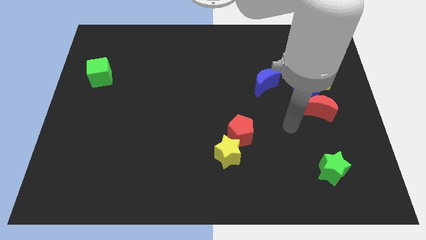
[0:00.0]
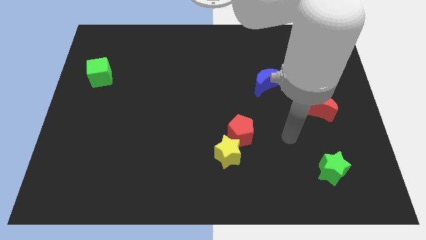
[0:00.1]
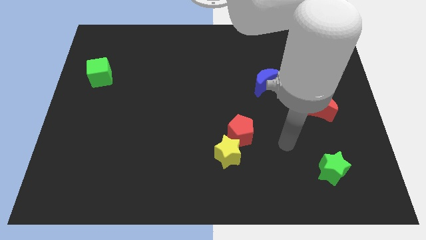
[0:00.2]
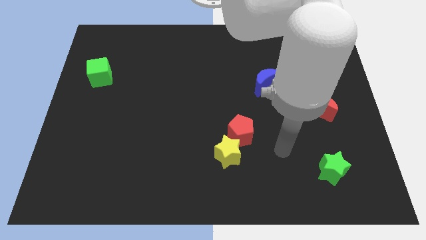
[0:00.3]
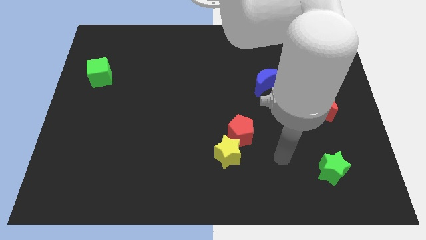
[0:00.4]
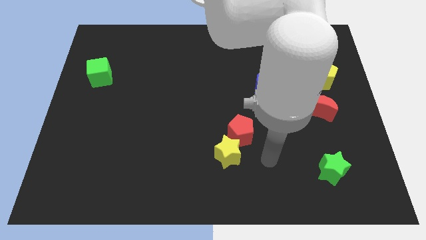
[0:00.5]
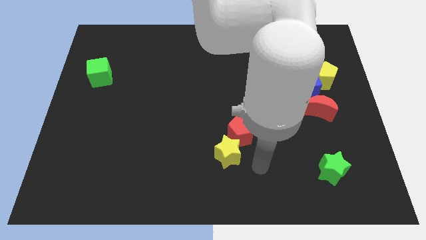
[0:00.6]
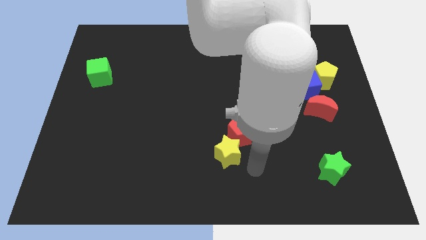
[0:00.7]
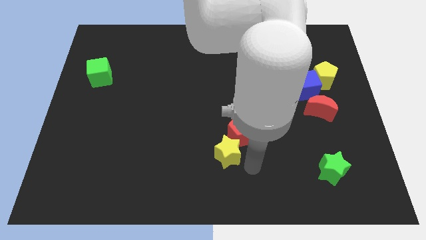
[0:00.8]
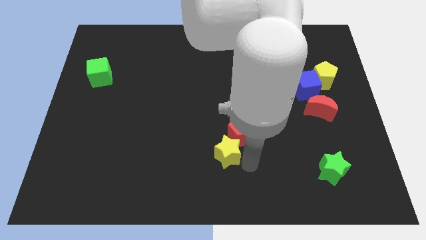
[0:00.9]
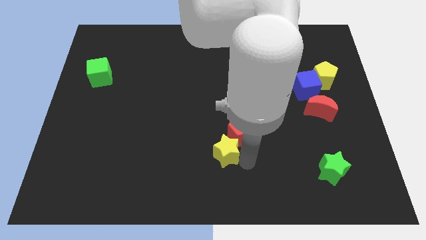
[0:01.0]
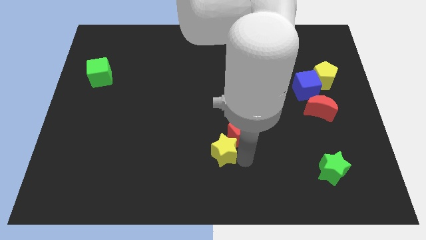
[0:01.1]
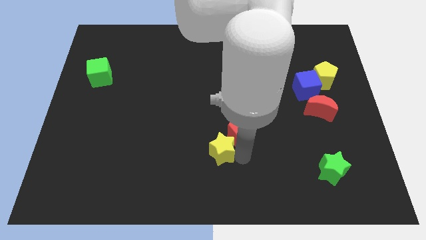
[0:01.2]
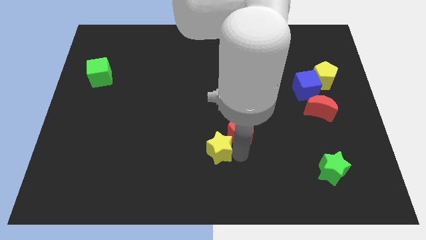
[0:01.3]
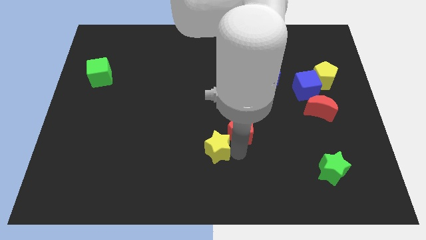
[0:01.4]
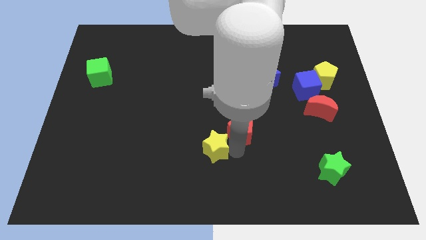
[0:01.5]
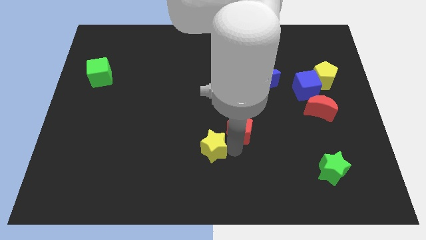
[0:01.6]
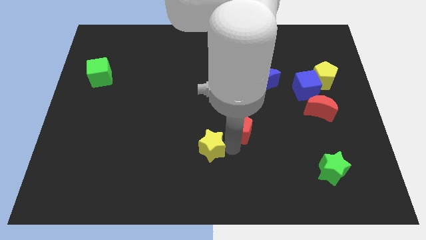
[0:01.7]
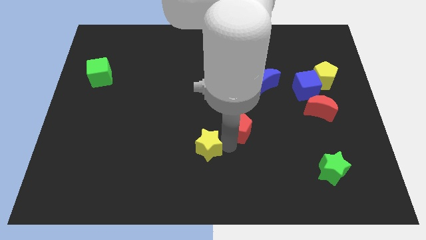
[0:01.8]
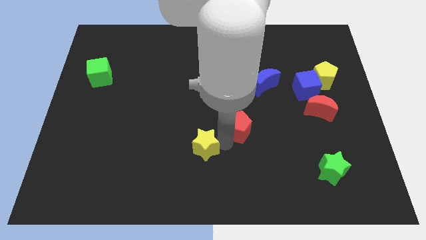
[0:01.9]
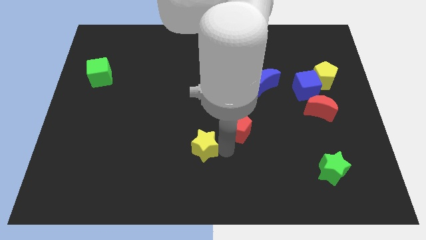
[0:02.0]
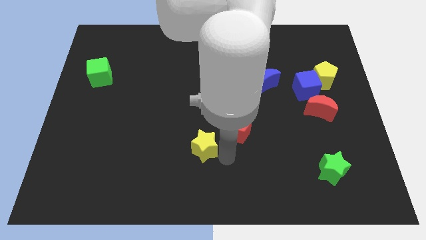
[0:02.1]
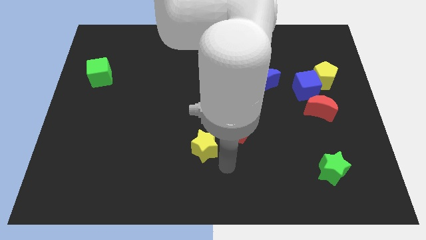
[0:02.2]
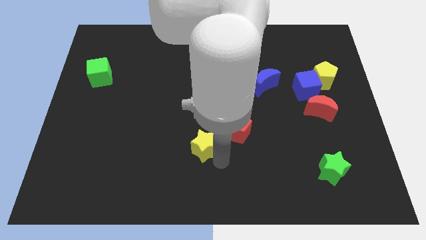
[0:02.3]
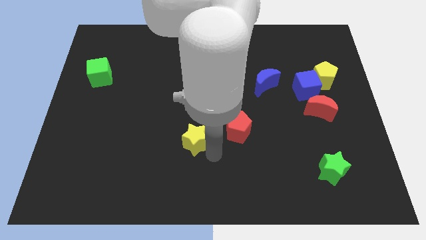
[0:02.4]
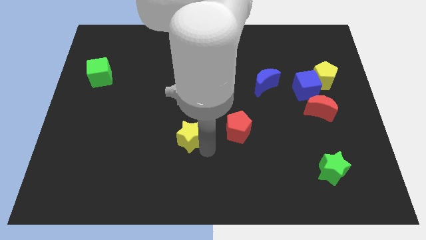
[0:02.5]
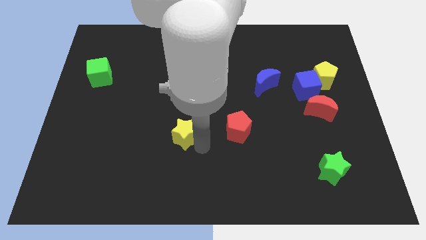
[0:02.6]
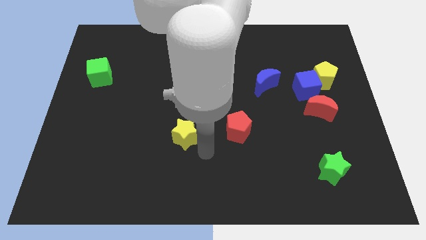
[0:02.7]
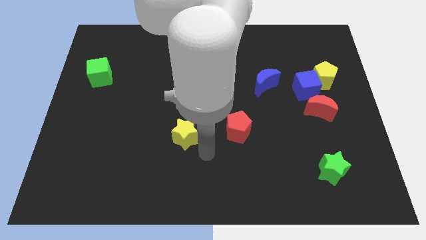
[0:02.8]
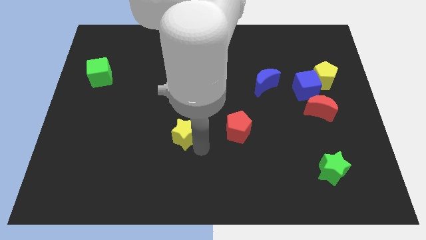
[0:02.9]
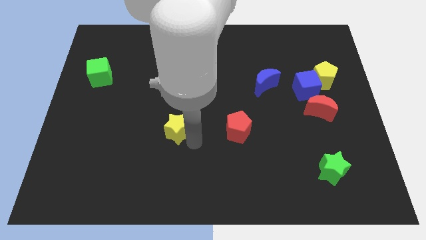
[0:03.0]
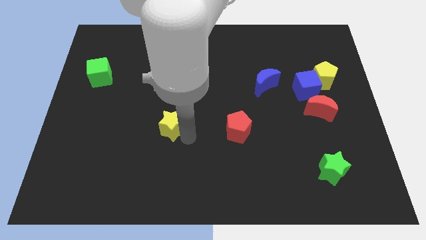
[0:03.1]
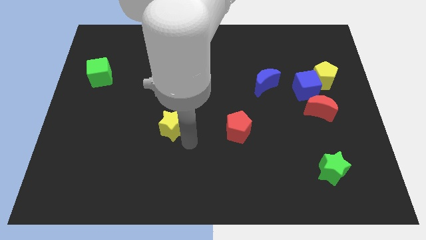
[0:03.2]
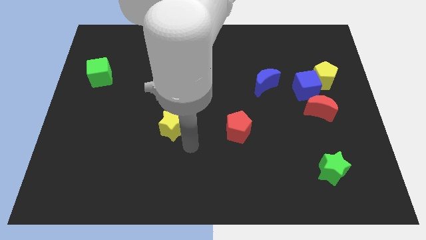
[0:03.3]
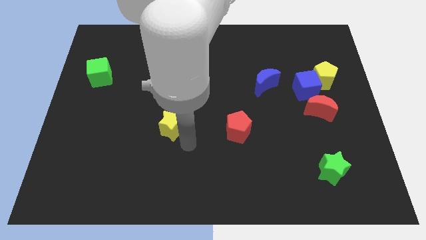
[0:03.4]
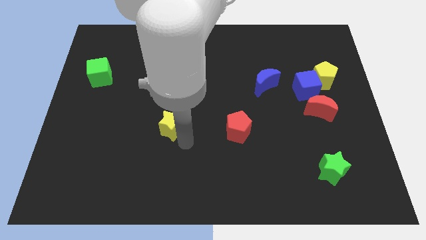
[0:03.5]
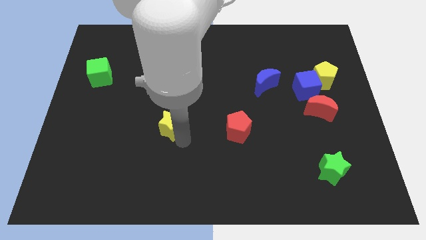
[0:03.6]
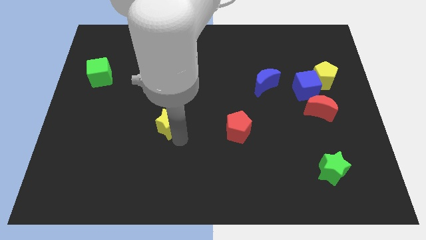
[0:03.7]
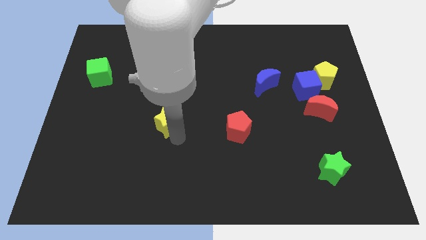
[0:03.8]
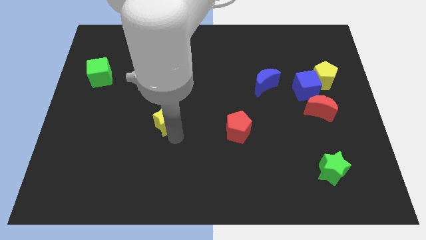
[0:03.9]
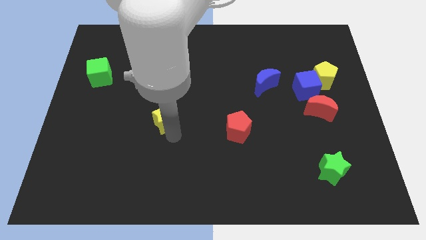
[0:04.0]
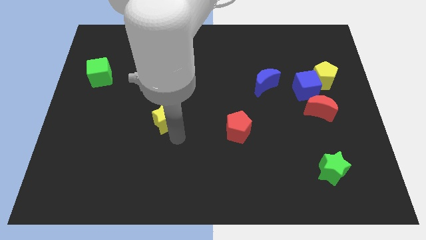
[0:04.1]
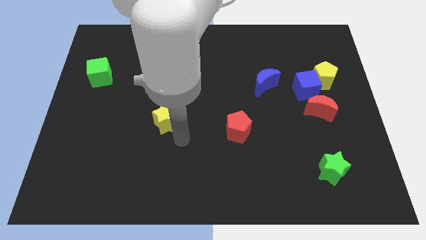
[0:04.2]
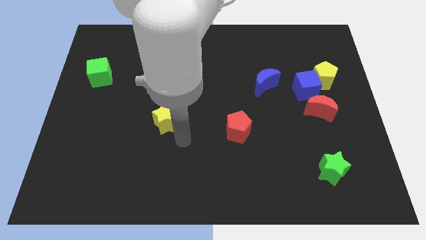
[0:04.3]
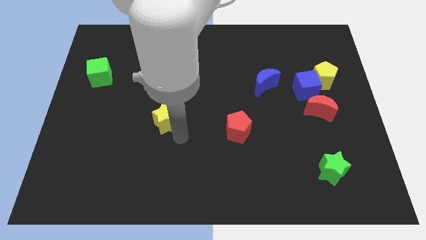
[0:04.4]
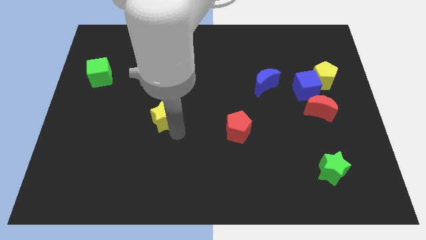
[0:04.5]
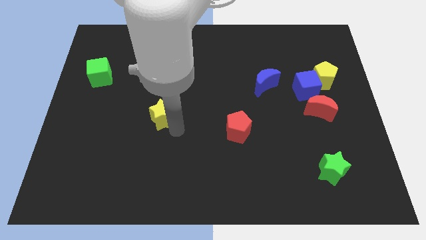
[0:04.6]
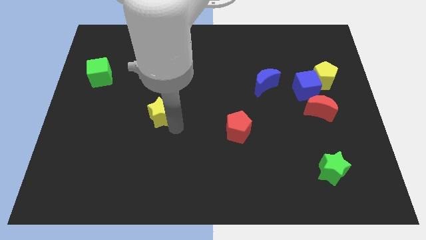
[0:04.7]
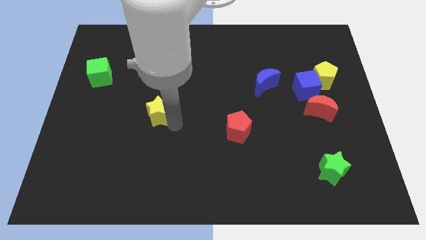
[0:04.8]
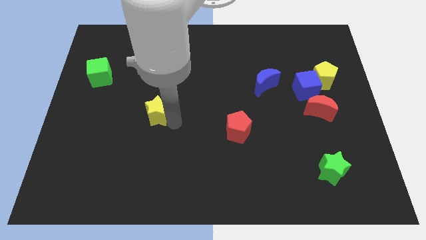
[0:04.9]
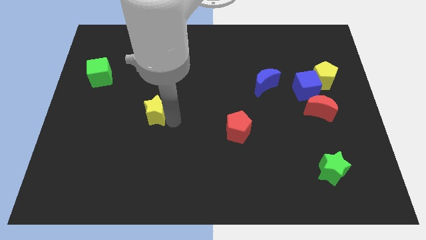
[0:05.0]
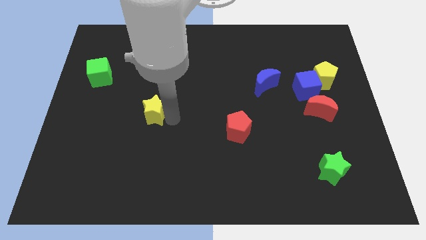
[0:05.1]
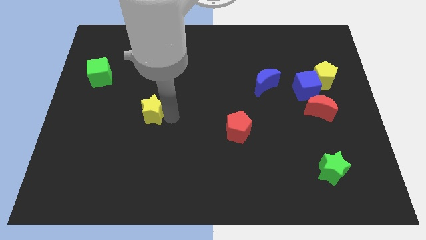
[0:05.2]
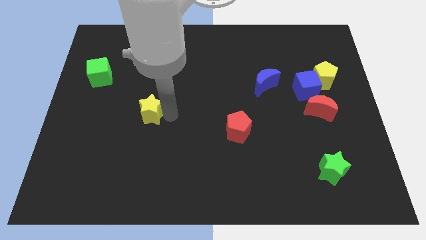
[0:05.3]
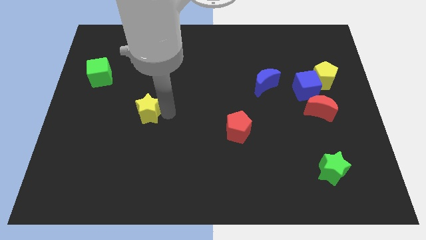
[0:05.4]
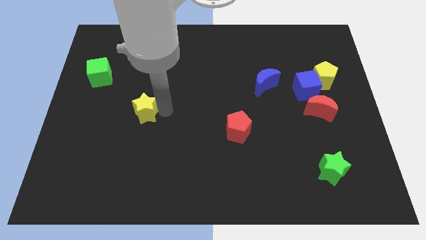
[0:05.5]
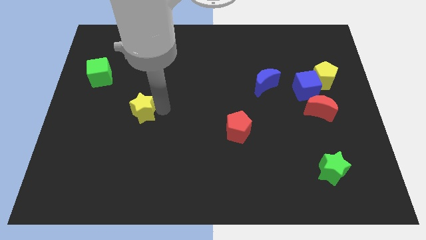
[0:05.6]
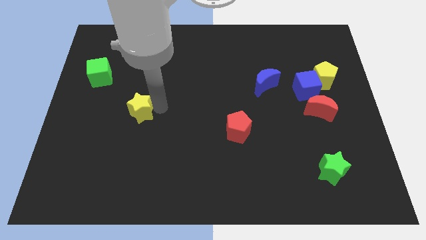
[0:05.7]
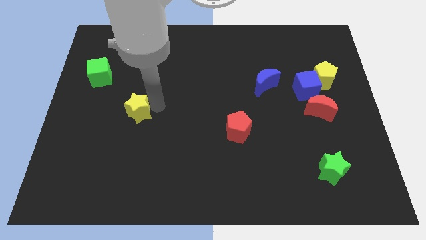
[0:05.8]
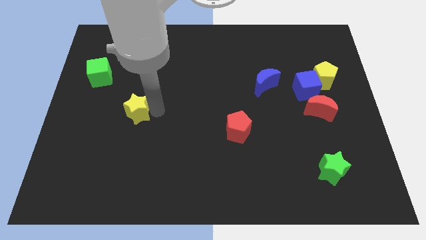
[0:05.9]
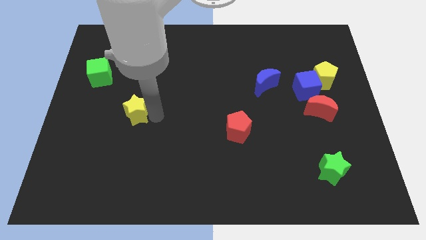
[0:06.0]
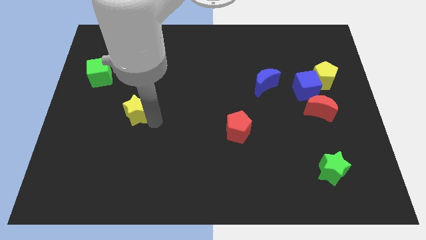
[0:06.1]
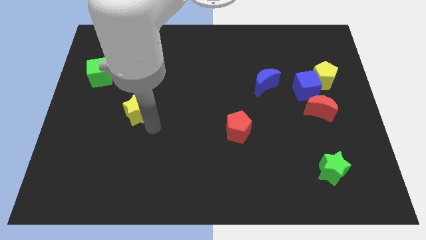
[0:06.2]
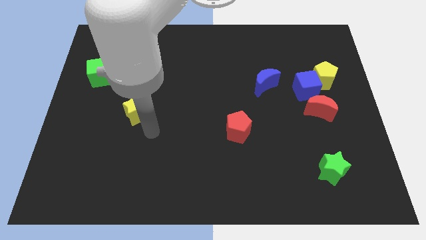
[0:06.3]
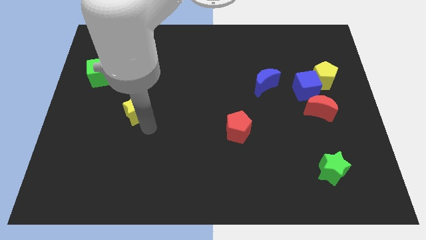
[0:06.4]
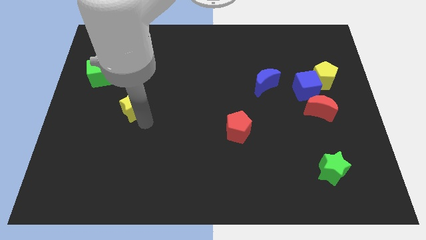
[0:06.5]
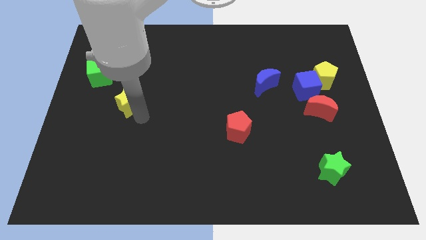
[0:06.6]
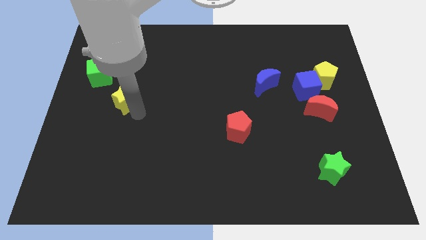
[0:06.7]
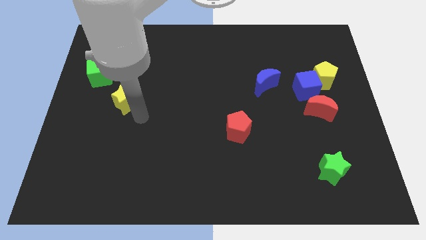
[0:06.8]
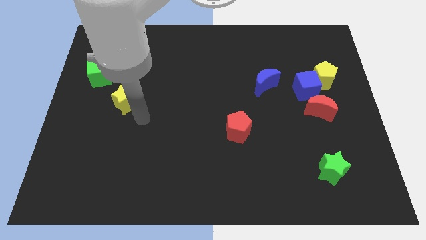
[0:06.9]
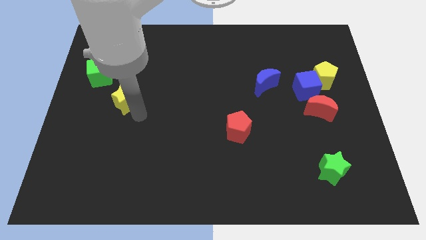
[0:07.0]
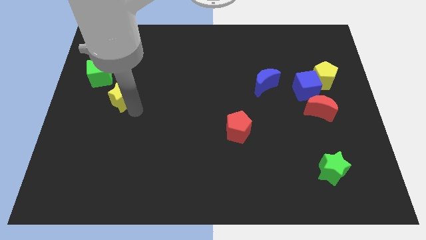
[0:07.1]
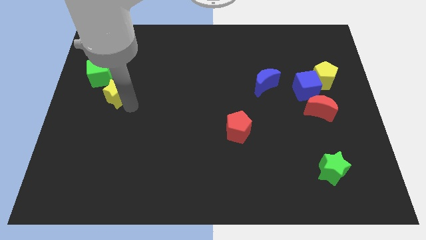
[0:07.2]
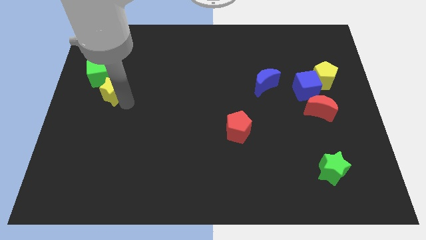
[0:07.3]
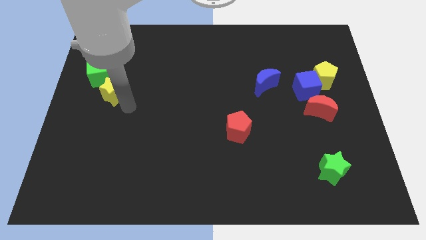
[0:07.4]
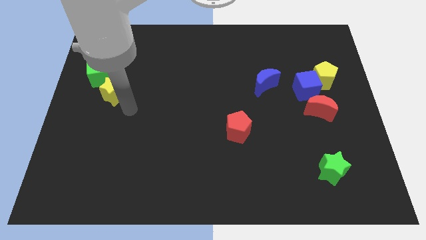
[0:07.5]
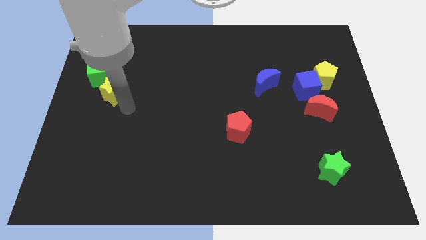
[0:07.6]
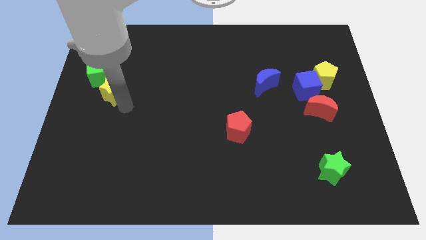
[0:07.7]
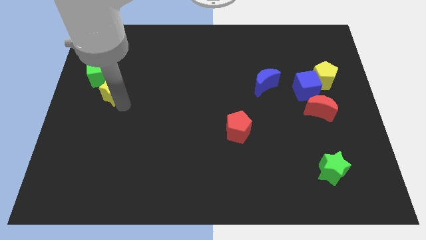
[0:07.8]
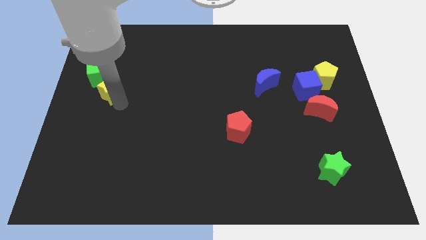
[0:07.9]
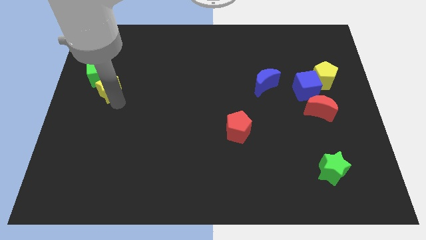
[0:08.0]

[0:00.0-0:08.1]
push the yellow star next to the green cube
